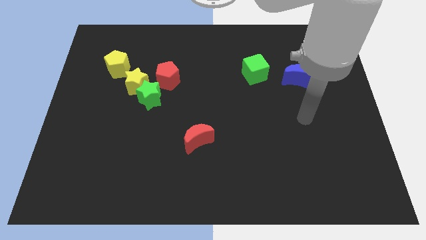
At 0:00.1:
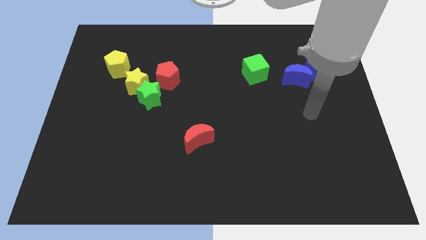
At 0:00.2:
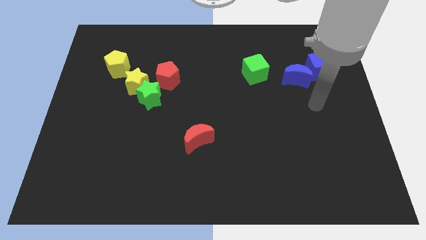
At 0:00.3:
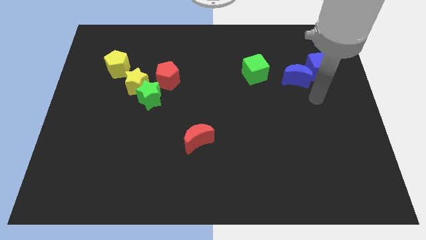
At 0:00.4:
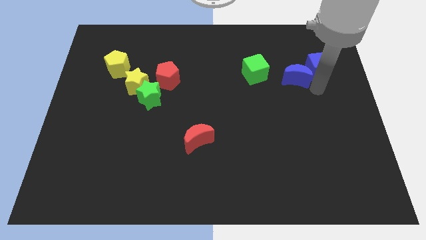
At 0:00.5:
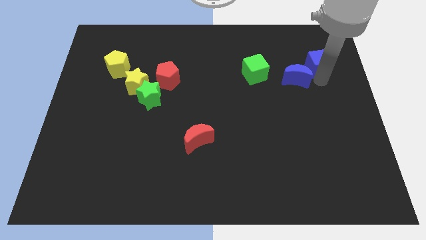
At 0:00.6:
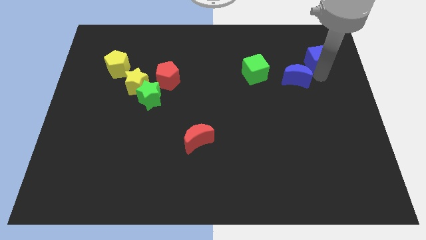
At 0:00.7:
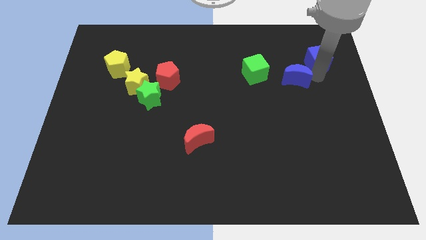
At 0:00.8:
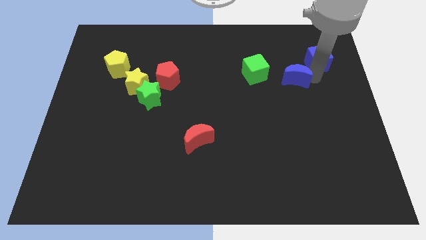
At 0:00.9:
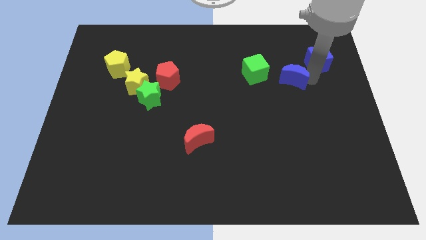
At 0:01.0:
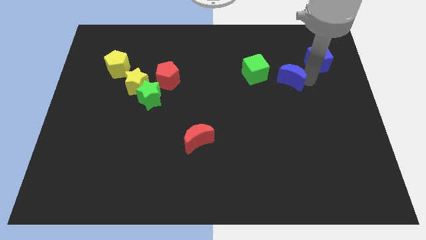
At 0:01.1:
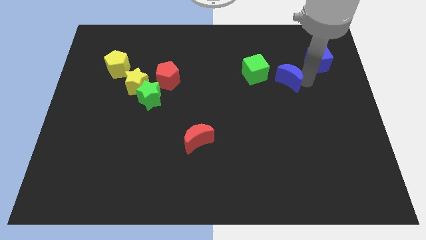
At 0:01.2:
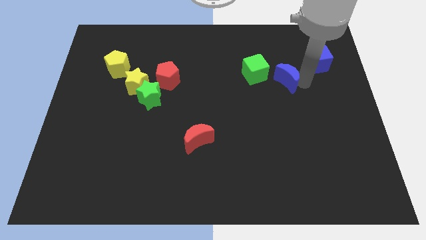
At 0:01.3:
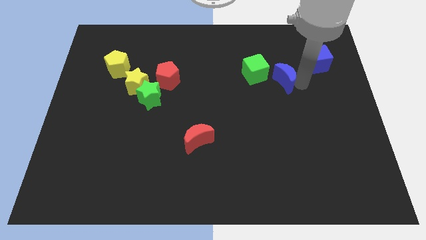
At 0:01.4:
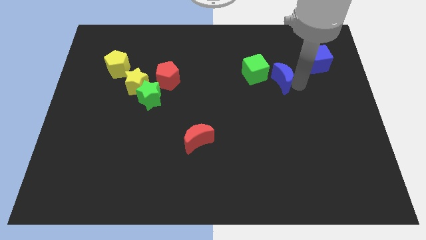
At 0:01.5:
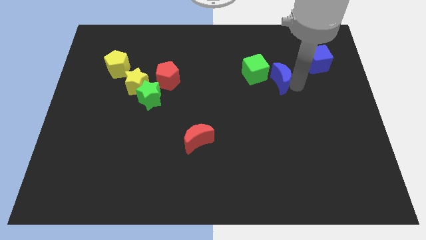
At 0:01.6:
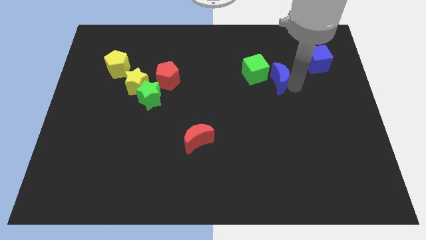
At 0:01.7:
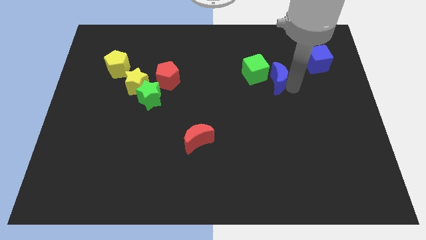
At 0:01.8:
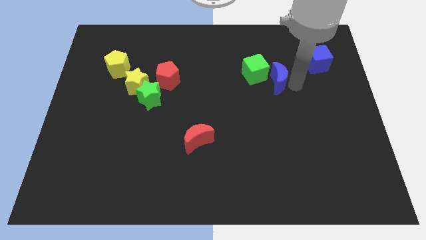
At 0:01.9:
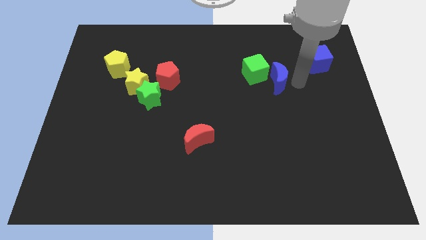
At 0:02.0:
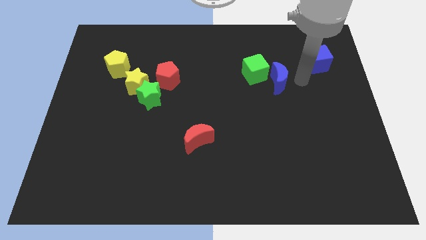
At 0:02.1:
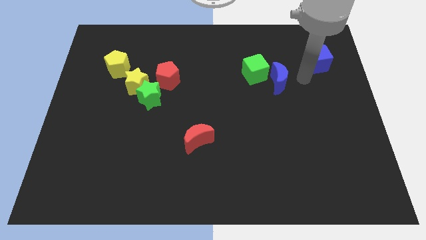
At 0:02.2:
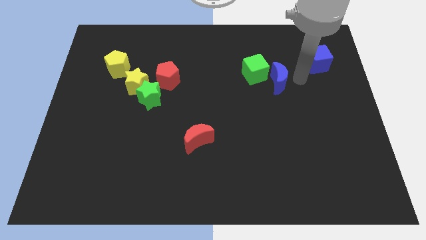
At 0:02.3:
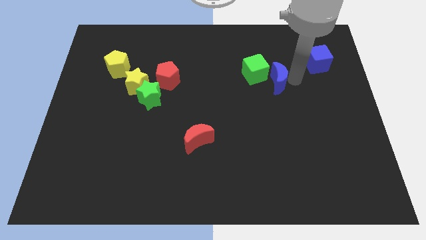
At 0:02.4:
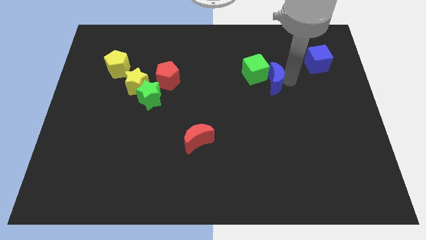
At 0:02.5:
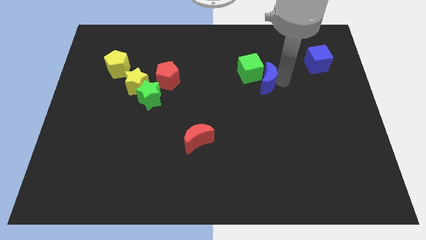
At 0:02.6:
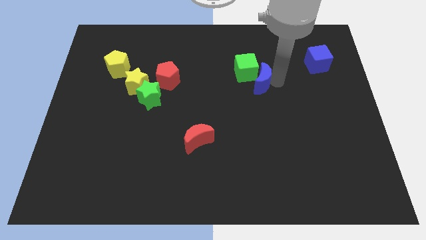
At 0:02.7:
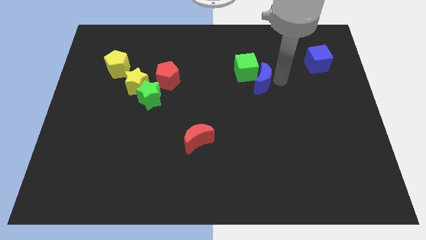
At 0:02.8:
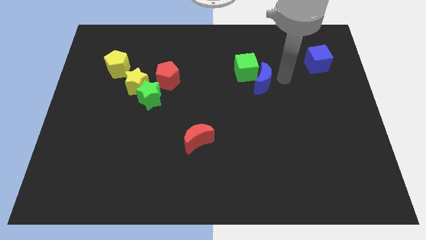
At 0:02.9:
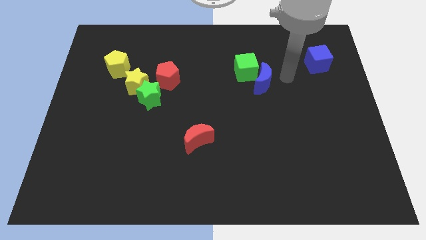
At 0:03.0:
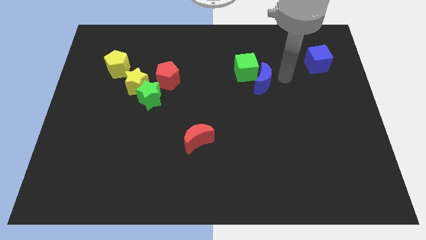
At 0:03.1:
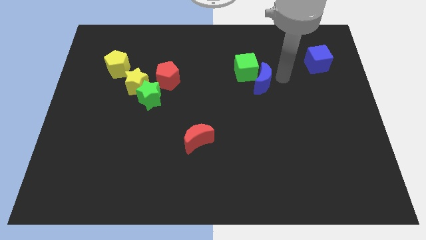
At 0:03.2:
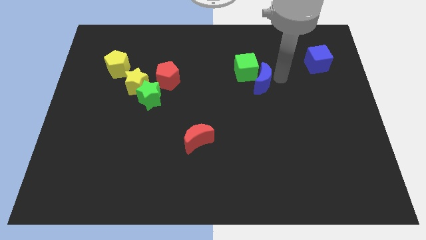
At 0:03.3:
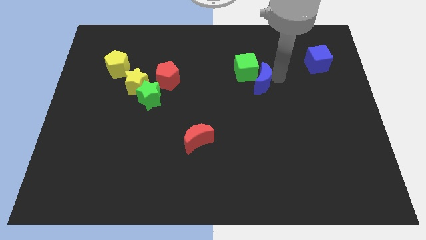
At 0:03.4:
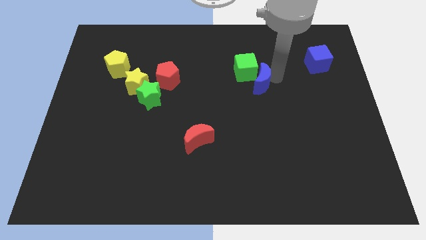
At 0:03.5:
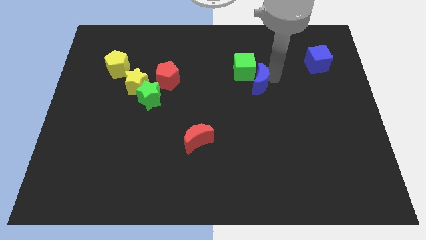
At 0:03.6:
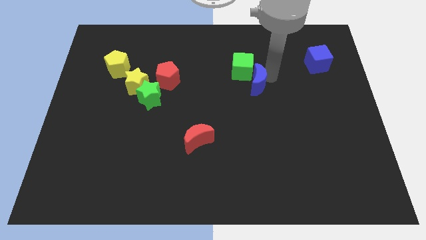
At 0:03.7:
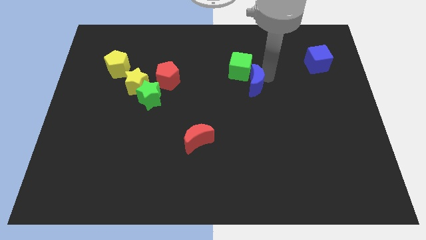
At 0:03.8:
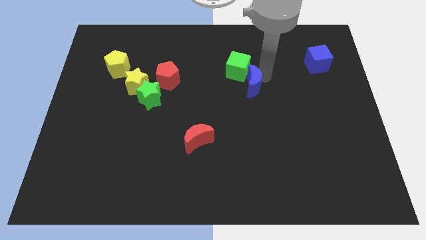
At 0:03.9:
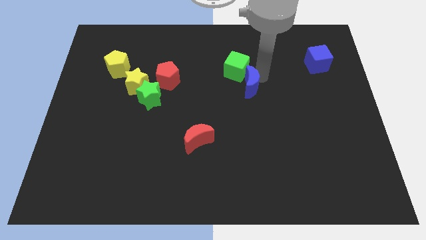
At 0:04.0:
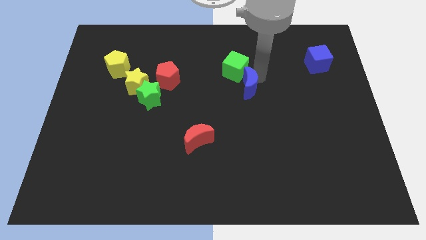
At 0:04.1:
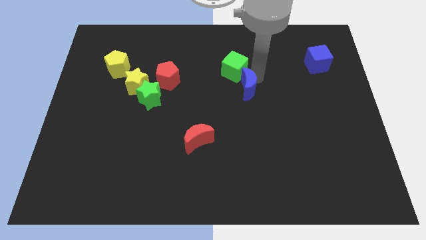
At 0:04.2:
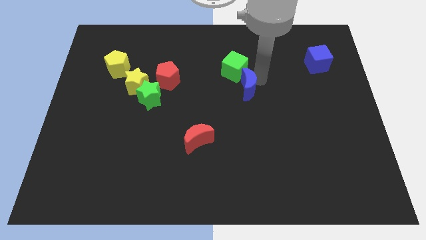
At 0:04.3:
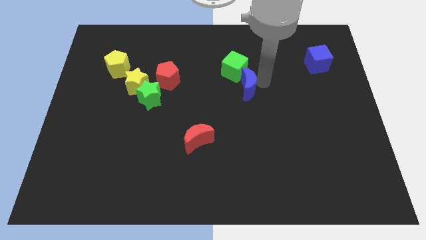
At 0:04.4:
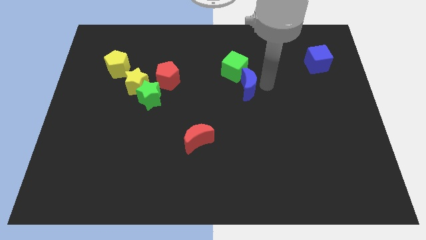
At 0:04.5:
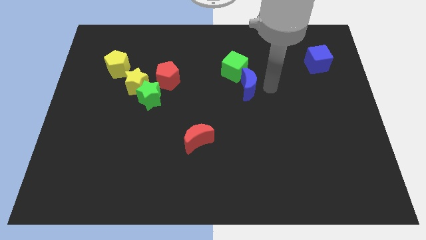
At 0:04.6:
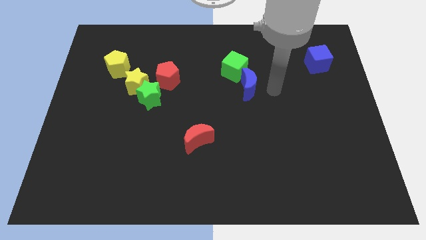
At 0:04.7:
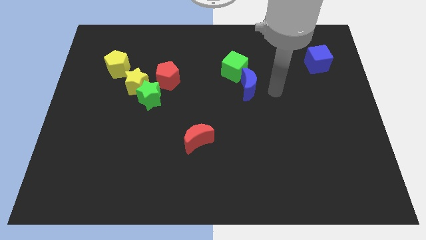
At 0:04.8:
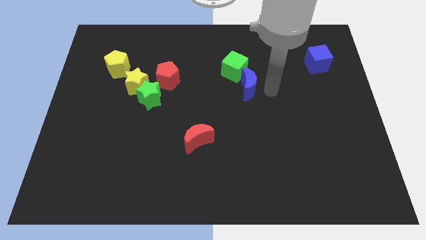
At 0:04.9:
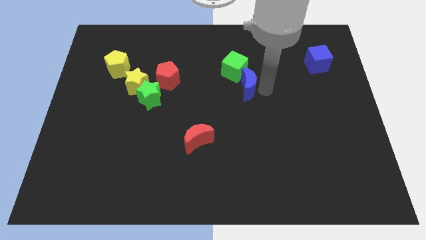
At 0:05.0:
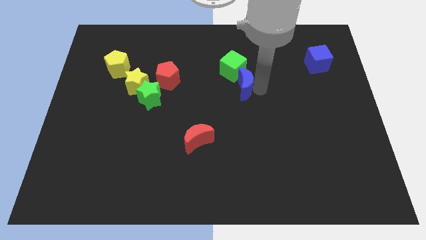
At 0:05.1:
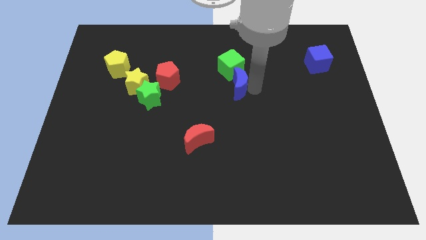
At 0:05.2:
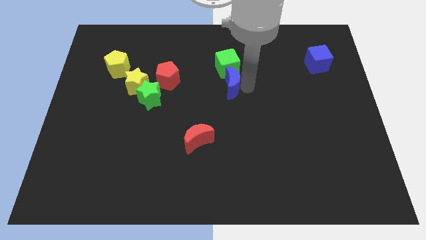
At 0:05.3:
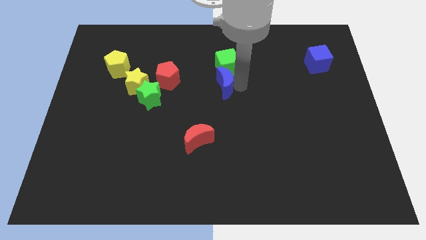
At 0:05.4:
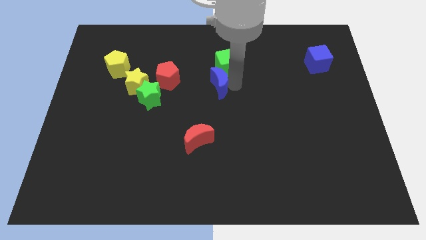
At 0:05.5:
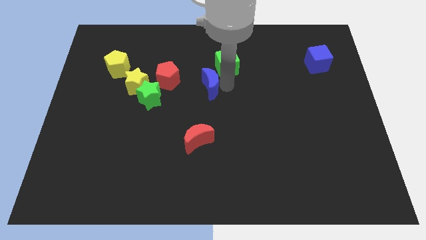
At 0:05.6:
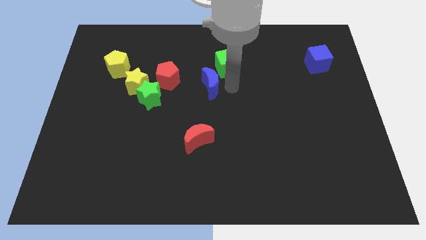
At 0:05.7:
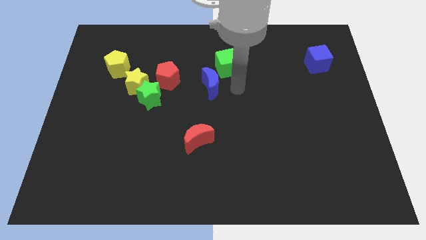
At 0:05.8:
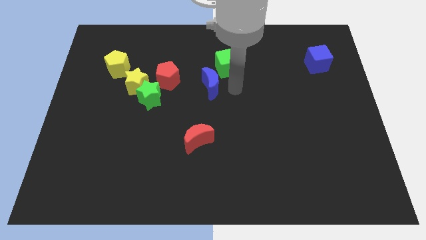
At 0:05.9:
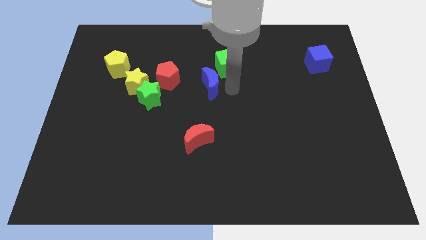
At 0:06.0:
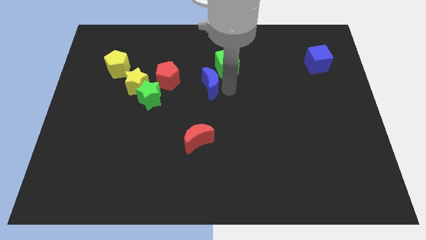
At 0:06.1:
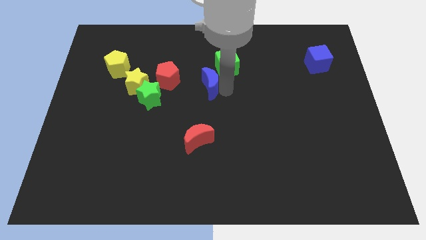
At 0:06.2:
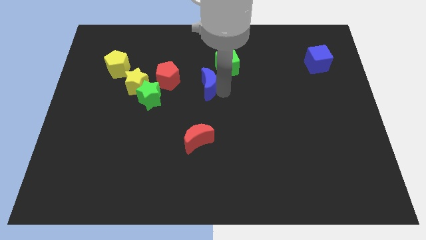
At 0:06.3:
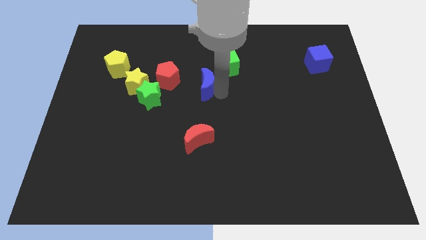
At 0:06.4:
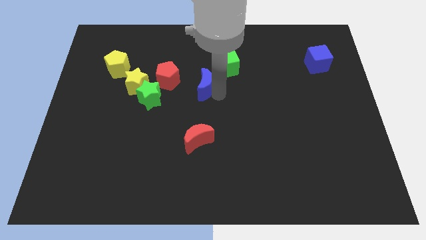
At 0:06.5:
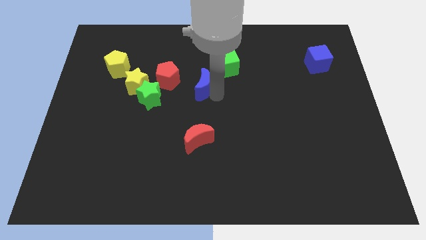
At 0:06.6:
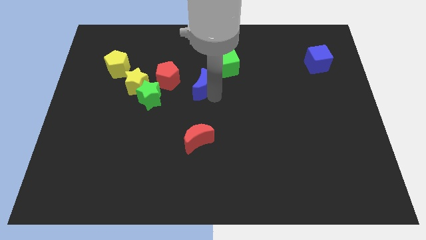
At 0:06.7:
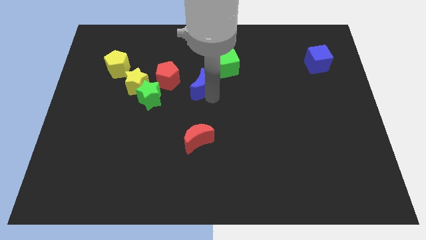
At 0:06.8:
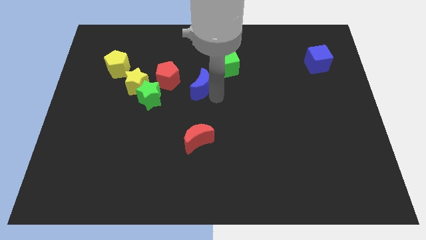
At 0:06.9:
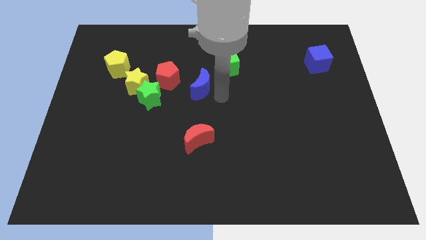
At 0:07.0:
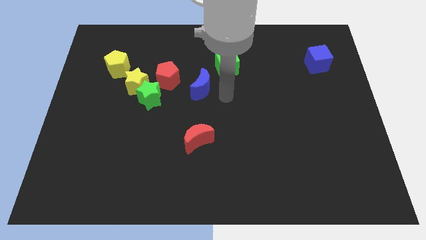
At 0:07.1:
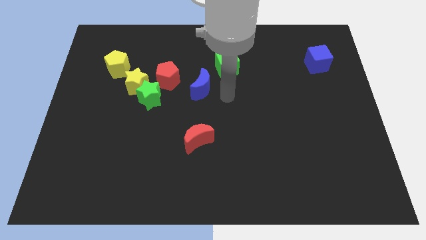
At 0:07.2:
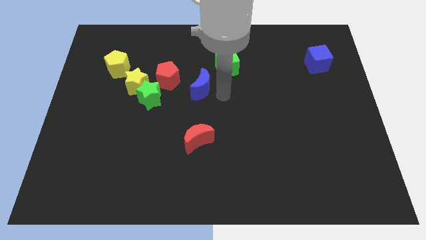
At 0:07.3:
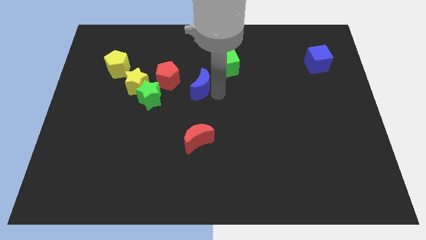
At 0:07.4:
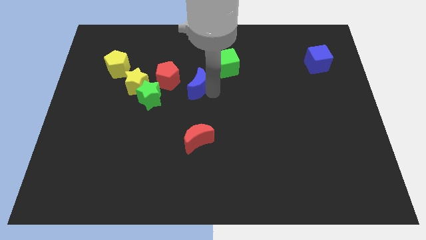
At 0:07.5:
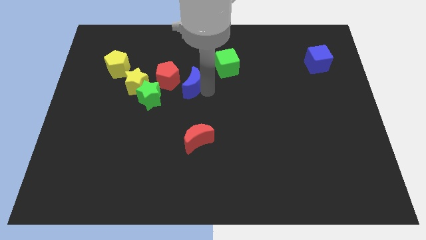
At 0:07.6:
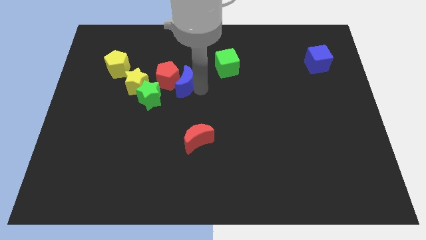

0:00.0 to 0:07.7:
slide the blue moon next to the red pentagon
